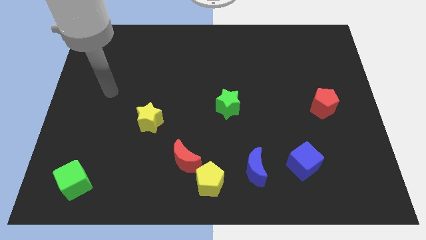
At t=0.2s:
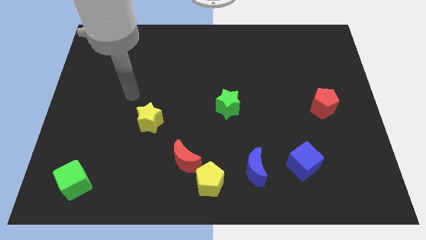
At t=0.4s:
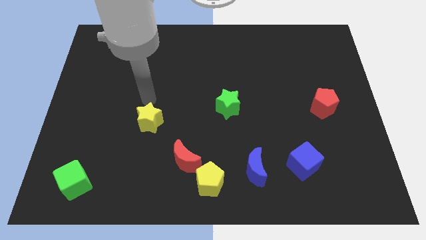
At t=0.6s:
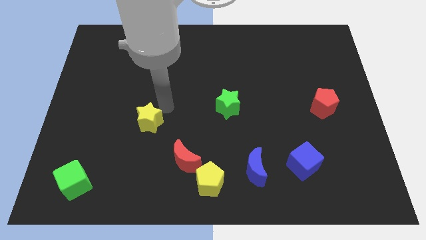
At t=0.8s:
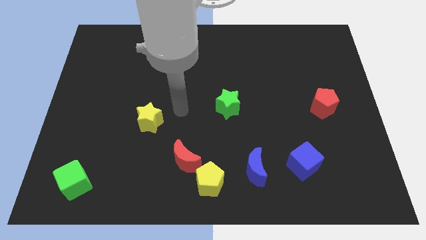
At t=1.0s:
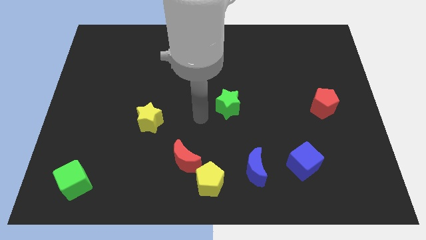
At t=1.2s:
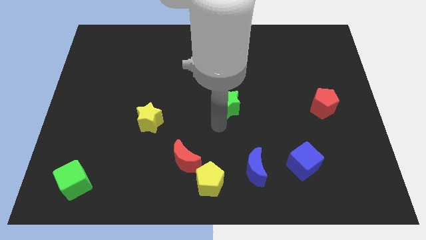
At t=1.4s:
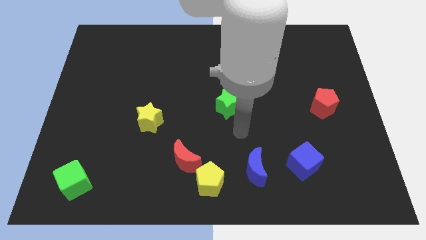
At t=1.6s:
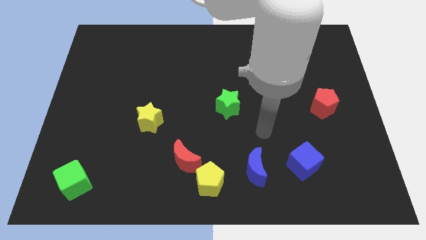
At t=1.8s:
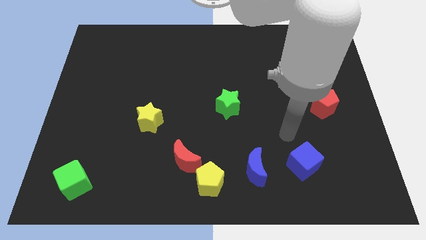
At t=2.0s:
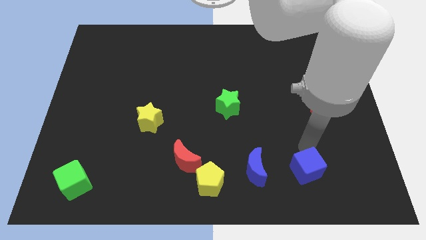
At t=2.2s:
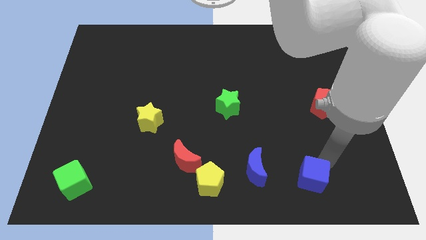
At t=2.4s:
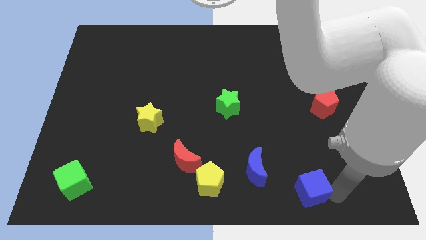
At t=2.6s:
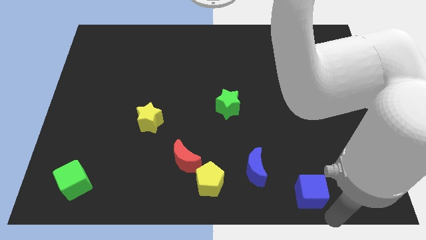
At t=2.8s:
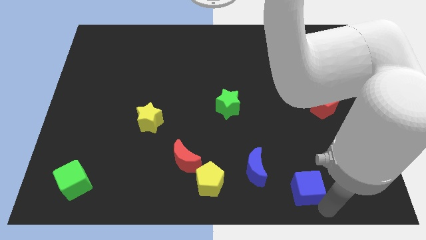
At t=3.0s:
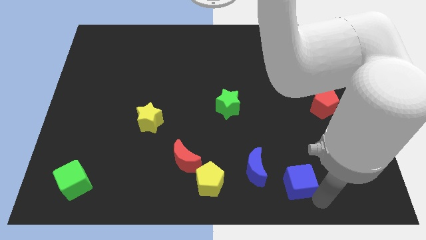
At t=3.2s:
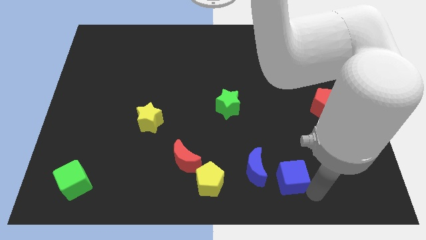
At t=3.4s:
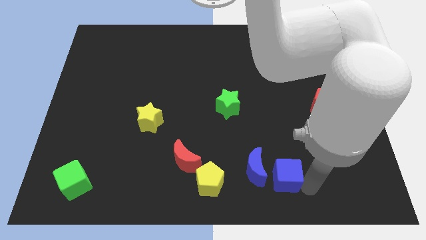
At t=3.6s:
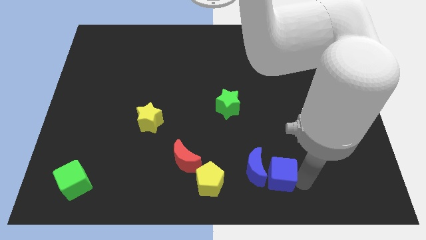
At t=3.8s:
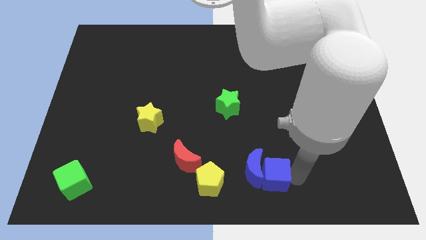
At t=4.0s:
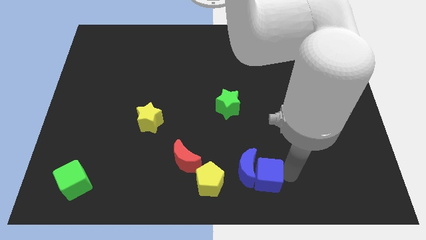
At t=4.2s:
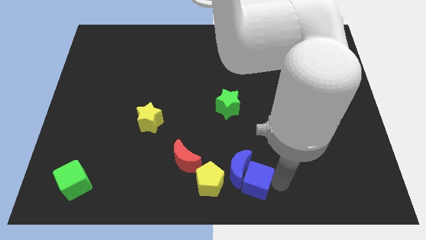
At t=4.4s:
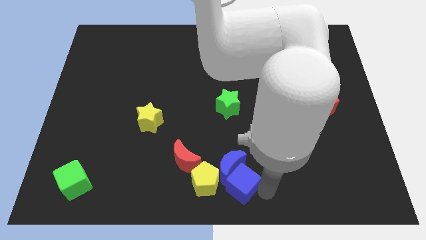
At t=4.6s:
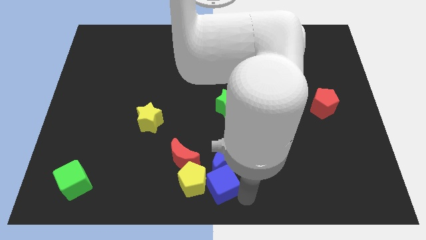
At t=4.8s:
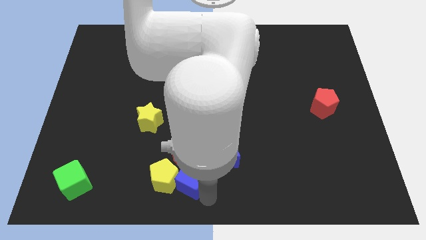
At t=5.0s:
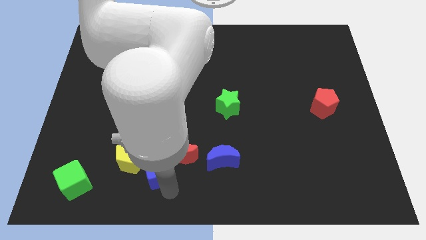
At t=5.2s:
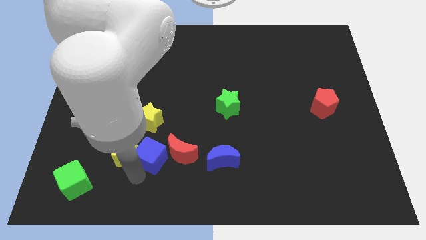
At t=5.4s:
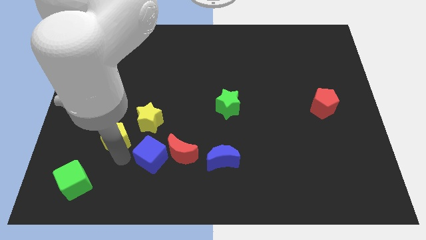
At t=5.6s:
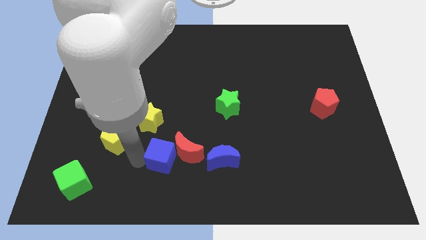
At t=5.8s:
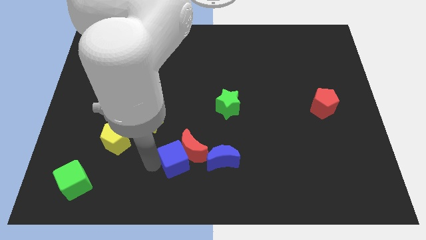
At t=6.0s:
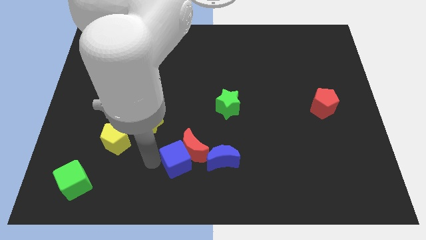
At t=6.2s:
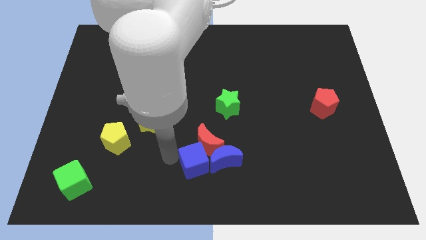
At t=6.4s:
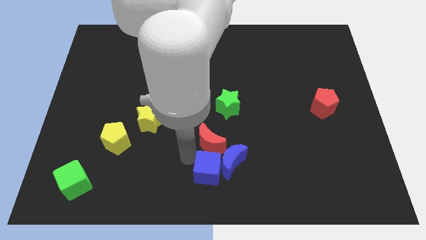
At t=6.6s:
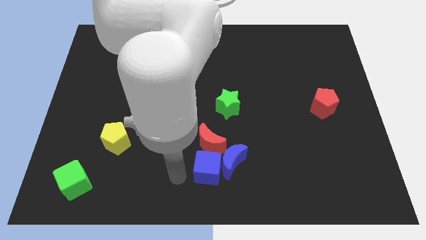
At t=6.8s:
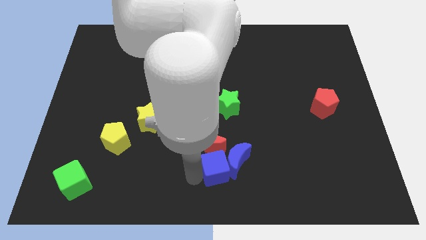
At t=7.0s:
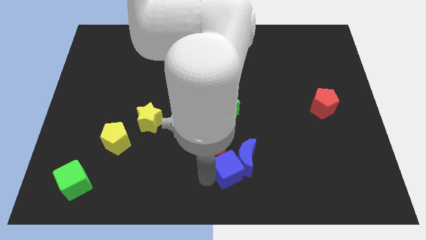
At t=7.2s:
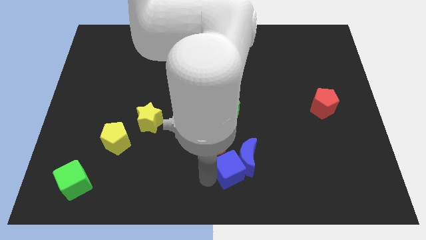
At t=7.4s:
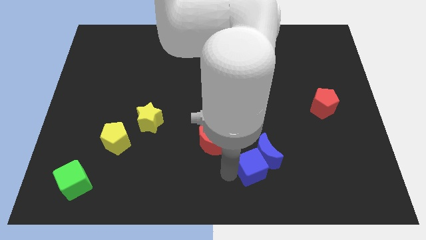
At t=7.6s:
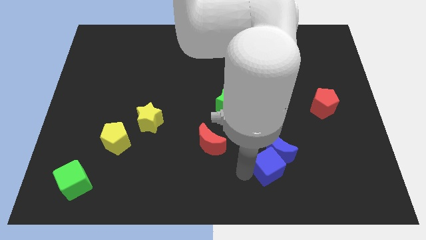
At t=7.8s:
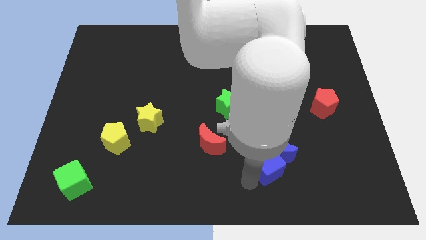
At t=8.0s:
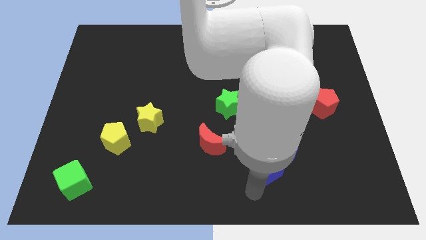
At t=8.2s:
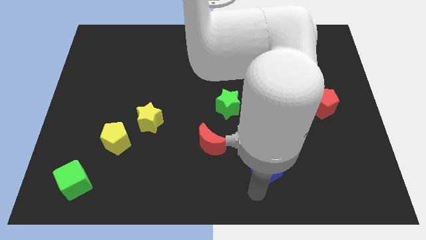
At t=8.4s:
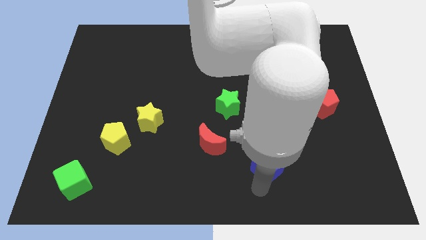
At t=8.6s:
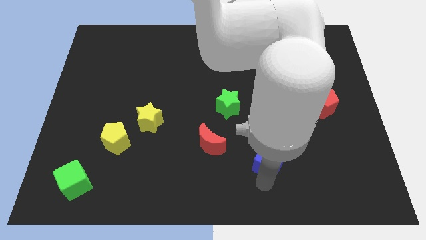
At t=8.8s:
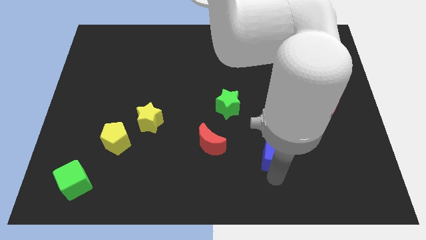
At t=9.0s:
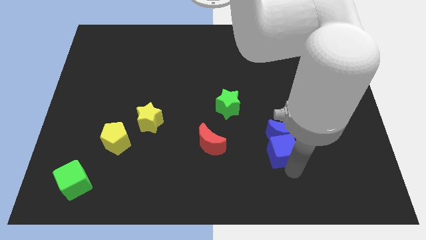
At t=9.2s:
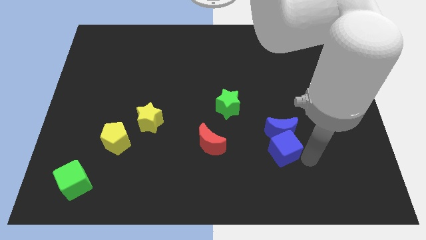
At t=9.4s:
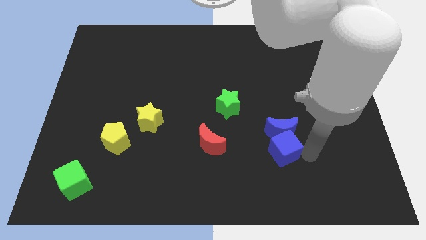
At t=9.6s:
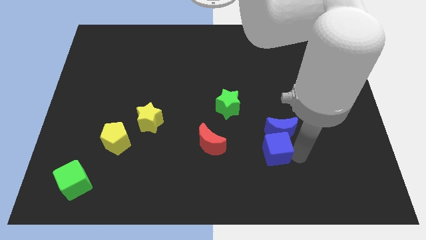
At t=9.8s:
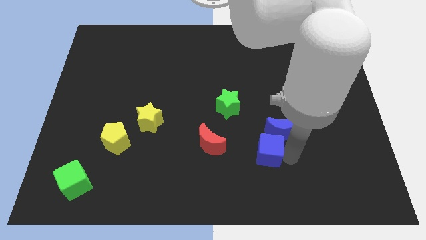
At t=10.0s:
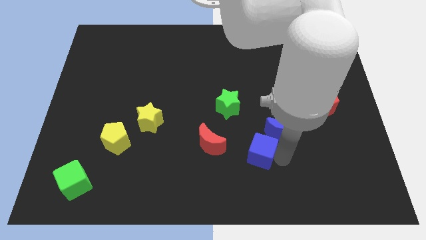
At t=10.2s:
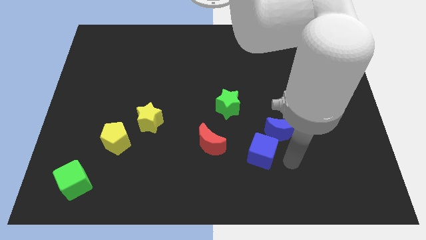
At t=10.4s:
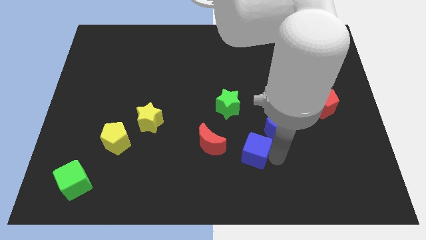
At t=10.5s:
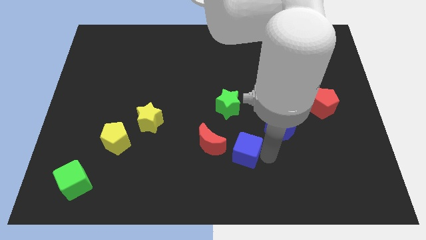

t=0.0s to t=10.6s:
move the blue cube to the bottom side of the green star

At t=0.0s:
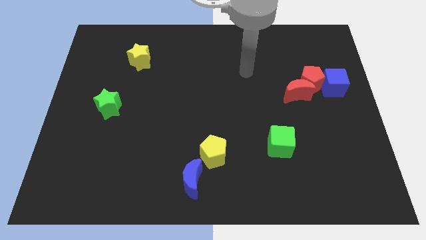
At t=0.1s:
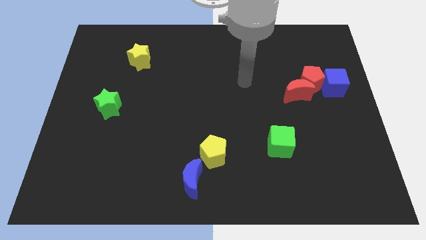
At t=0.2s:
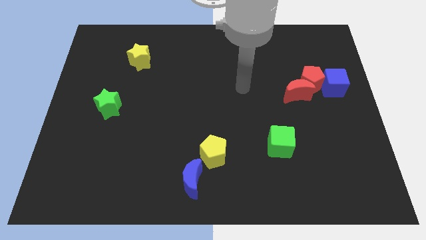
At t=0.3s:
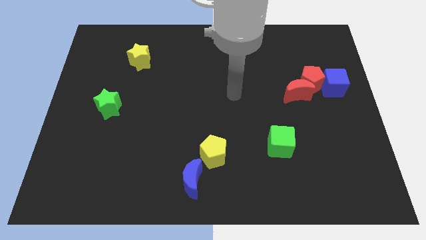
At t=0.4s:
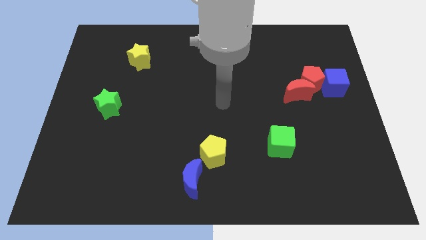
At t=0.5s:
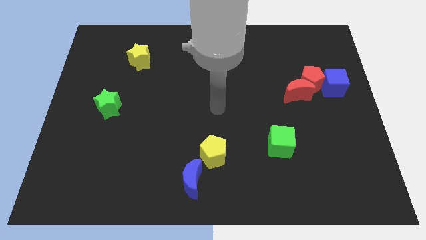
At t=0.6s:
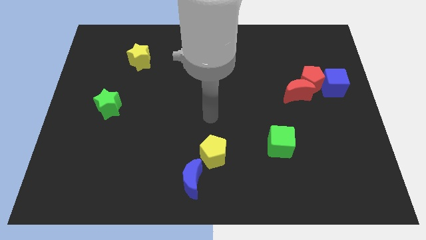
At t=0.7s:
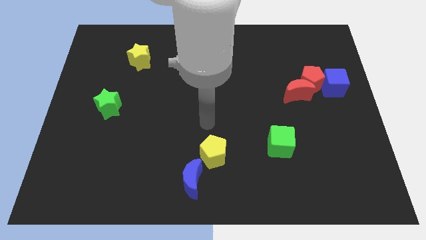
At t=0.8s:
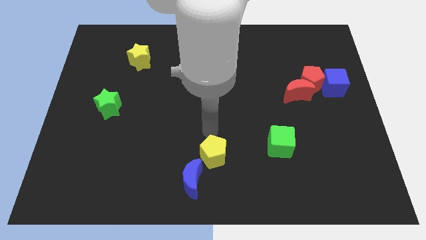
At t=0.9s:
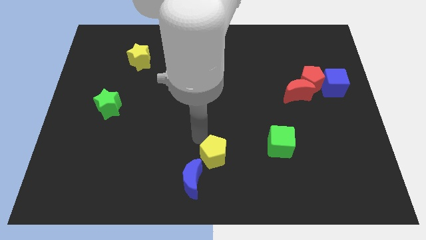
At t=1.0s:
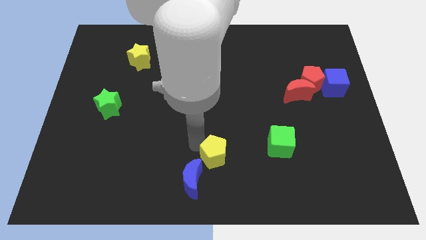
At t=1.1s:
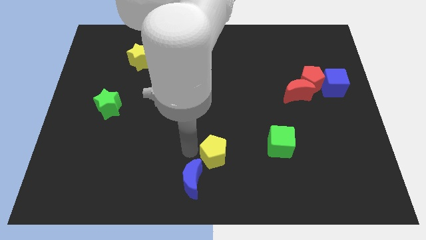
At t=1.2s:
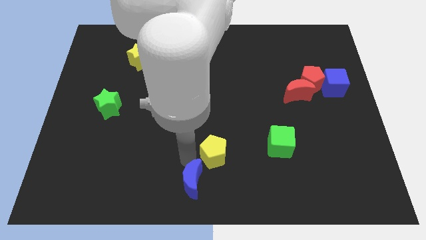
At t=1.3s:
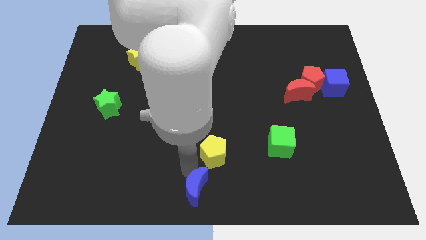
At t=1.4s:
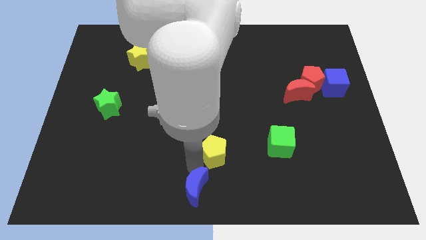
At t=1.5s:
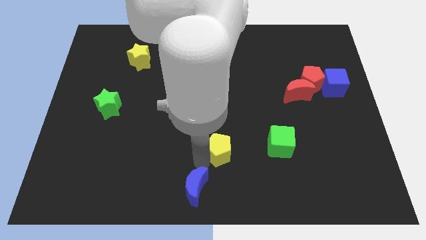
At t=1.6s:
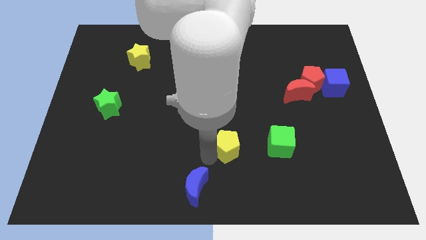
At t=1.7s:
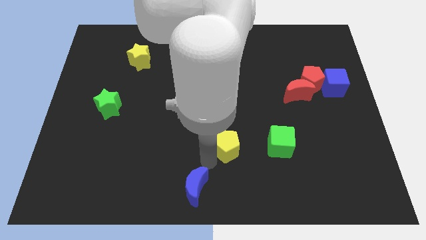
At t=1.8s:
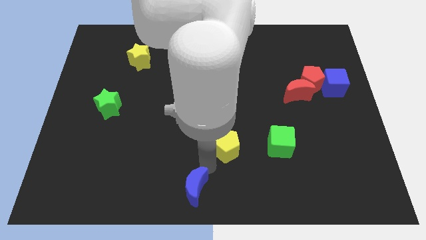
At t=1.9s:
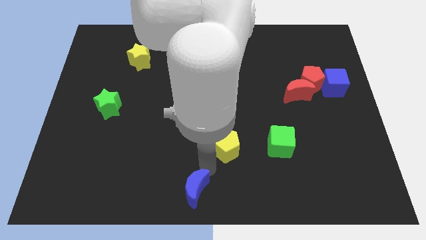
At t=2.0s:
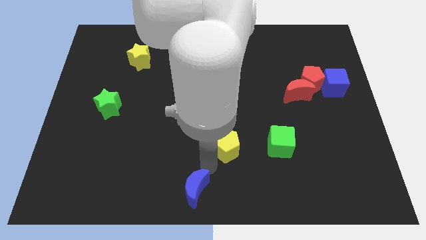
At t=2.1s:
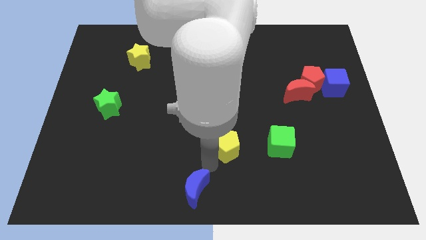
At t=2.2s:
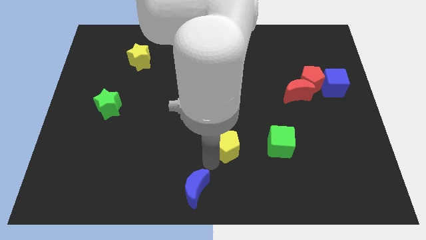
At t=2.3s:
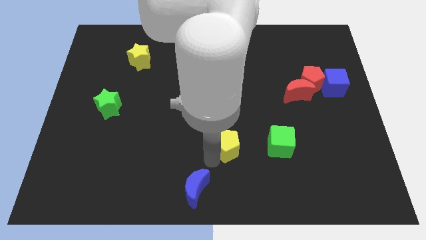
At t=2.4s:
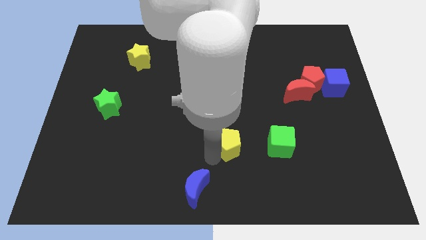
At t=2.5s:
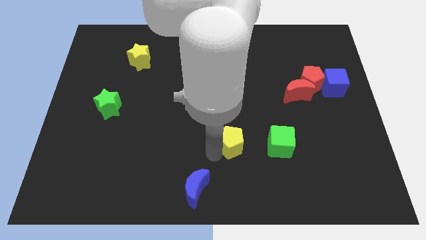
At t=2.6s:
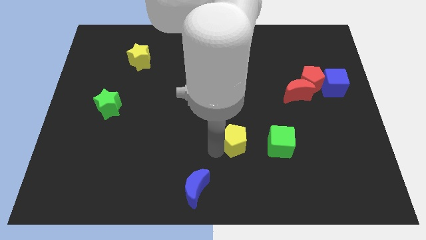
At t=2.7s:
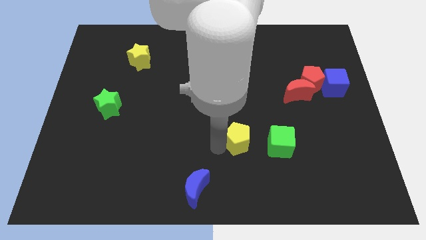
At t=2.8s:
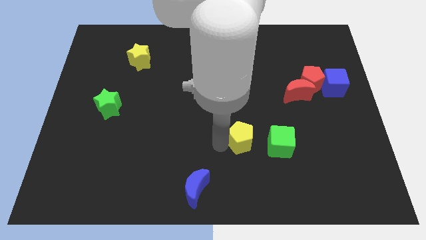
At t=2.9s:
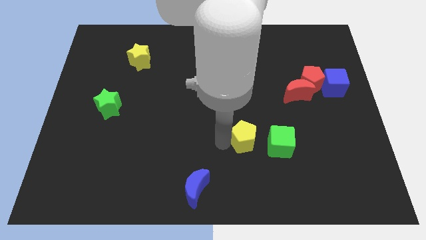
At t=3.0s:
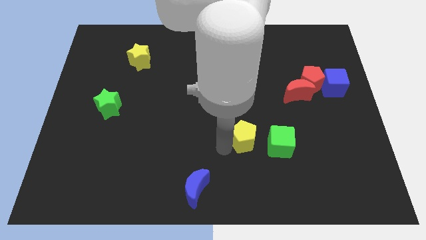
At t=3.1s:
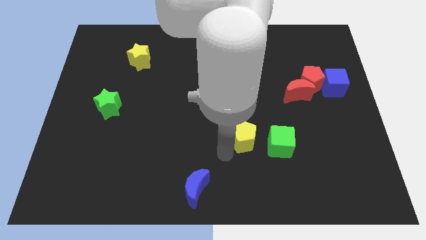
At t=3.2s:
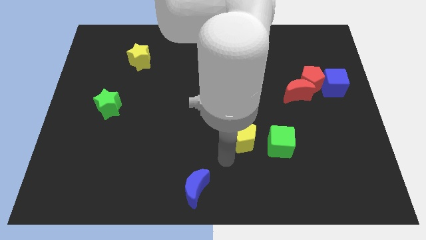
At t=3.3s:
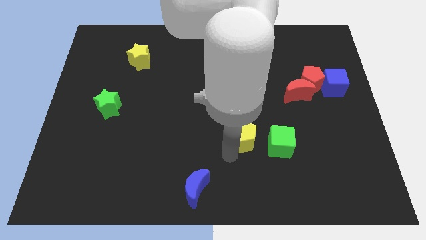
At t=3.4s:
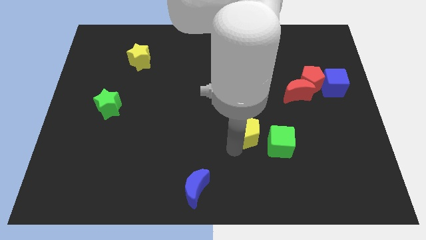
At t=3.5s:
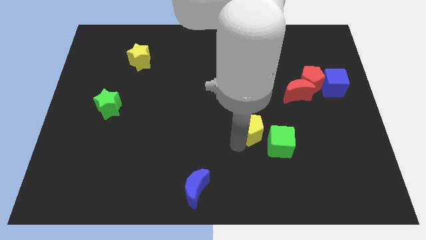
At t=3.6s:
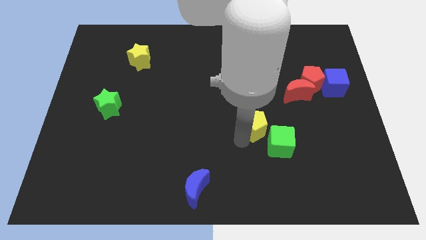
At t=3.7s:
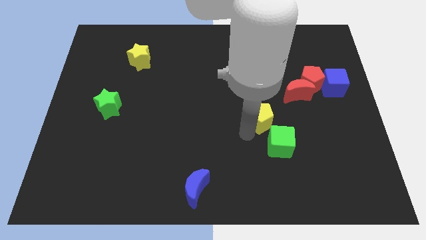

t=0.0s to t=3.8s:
move the yellow pentagon to the top of the green cube
